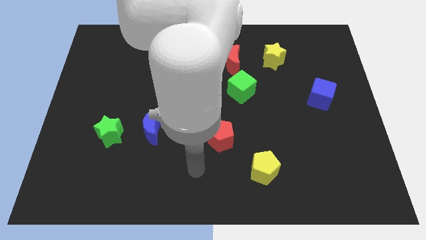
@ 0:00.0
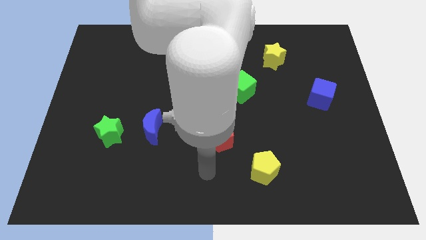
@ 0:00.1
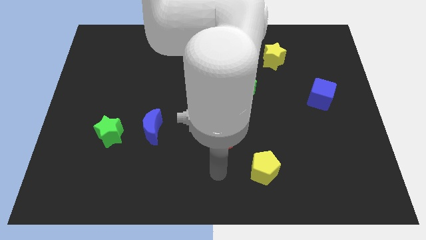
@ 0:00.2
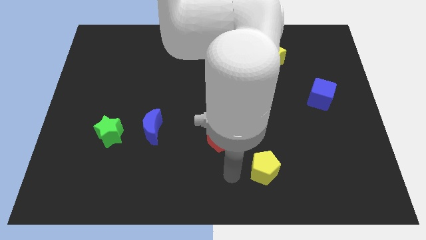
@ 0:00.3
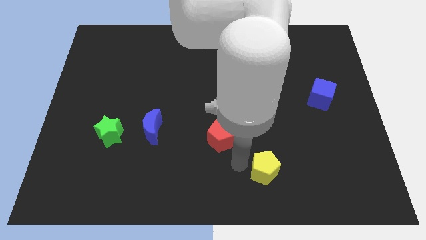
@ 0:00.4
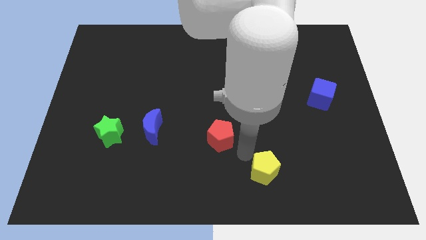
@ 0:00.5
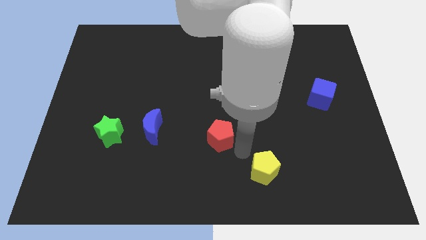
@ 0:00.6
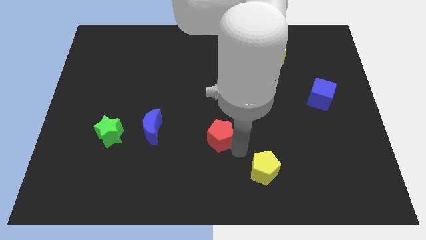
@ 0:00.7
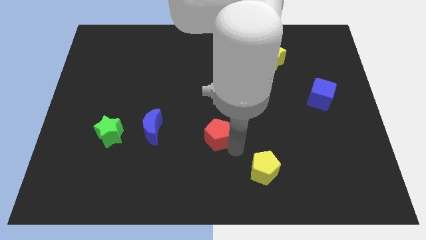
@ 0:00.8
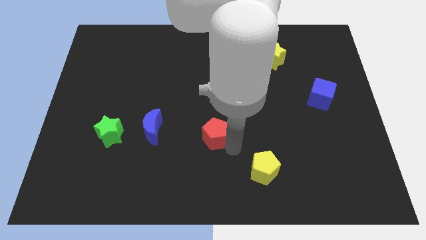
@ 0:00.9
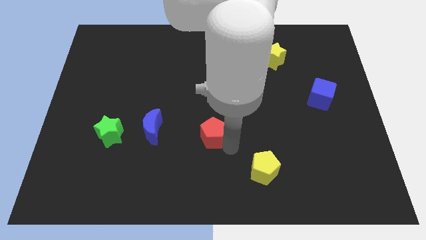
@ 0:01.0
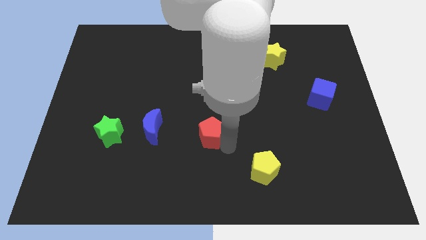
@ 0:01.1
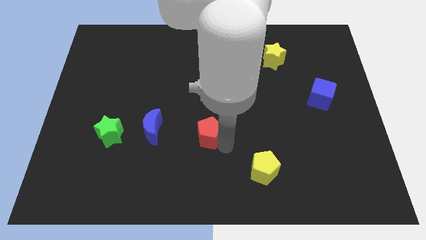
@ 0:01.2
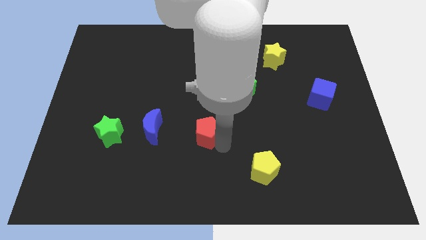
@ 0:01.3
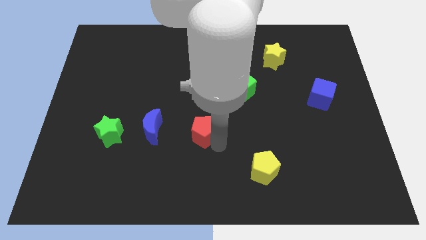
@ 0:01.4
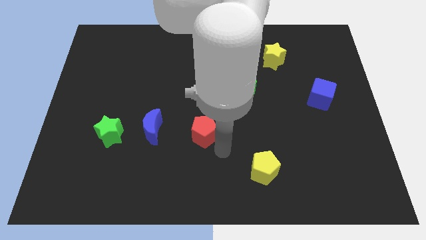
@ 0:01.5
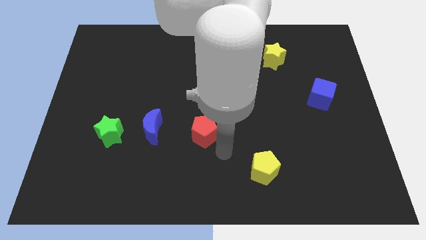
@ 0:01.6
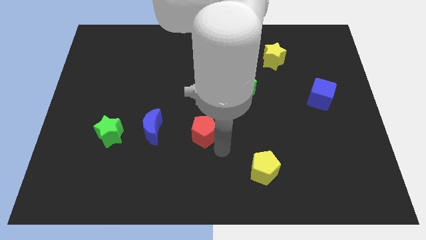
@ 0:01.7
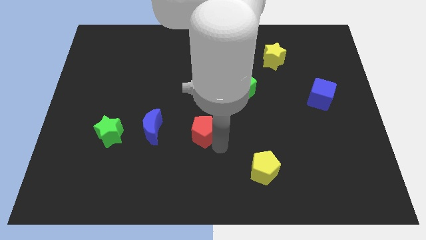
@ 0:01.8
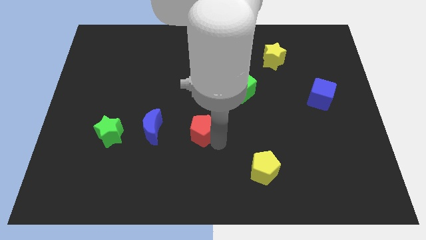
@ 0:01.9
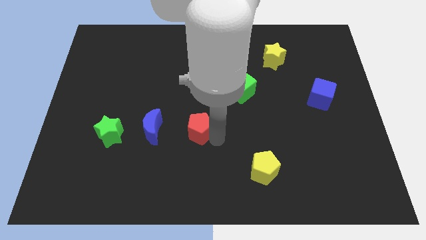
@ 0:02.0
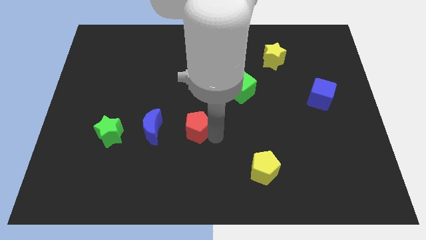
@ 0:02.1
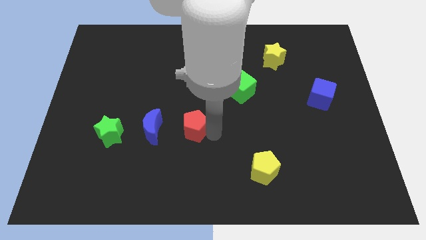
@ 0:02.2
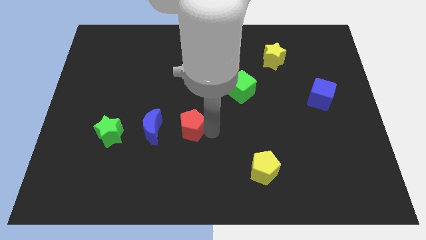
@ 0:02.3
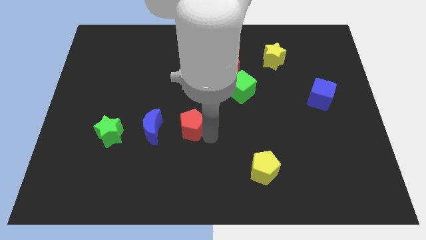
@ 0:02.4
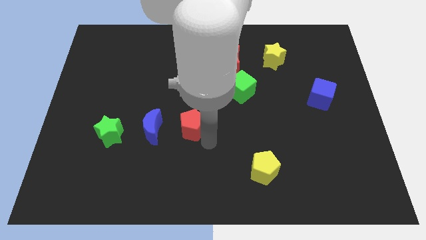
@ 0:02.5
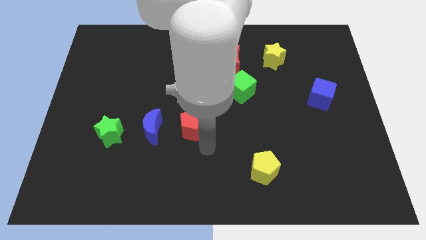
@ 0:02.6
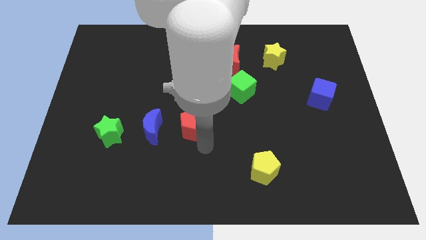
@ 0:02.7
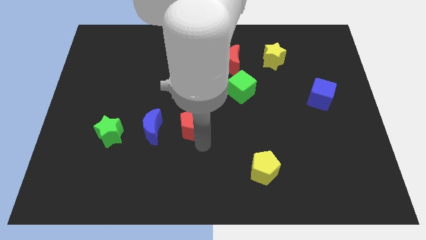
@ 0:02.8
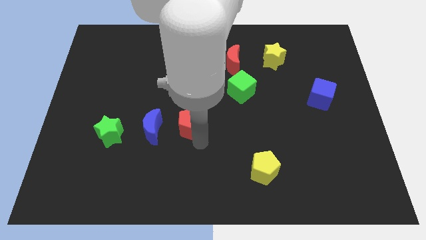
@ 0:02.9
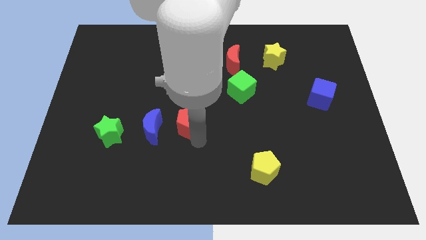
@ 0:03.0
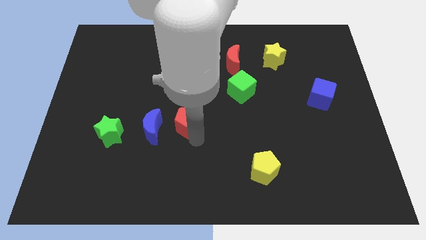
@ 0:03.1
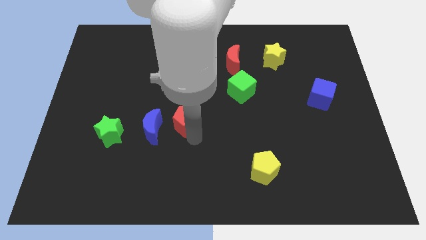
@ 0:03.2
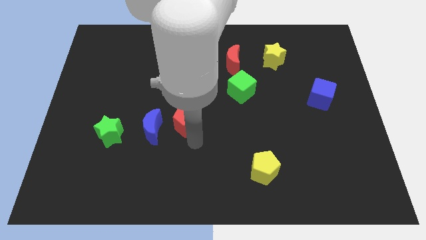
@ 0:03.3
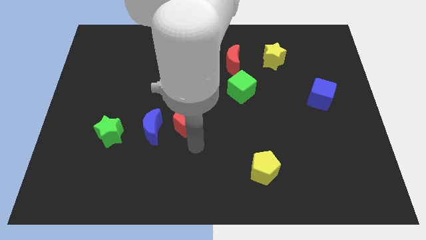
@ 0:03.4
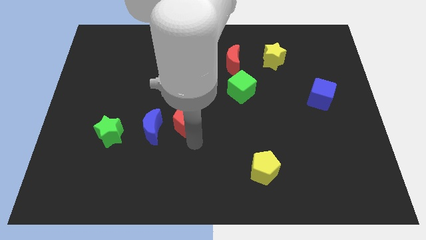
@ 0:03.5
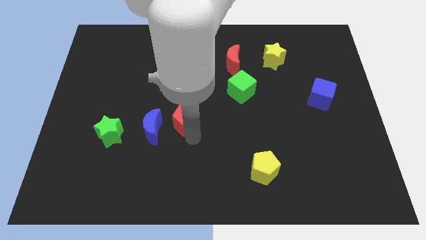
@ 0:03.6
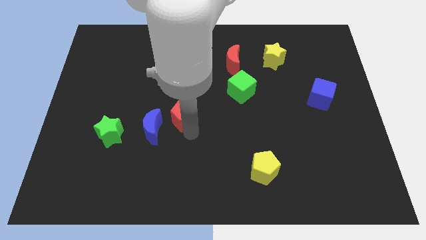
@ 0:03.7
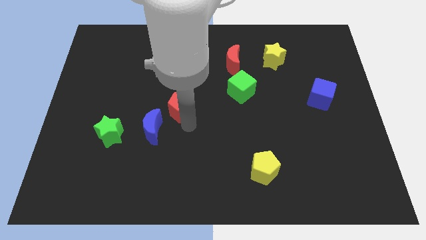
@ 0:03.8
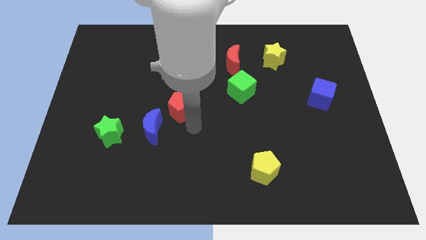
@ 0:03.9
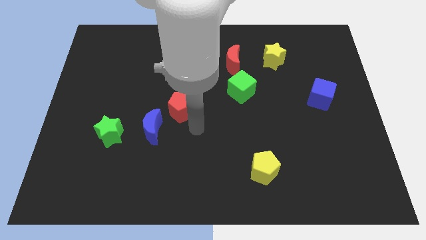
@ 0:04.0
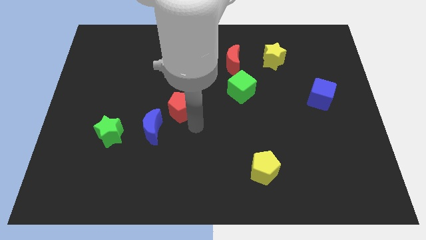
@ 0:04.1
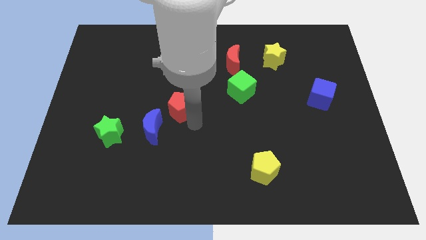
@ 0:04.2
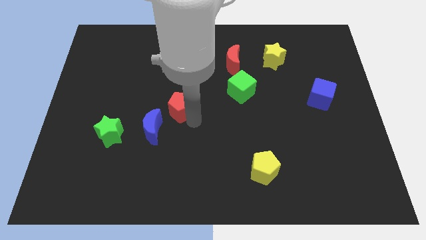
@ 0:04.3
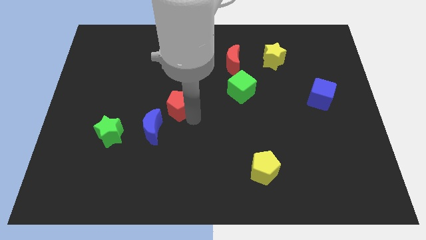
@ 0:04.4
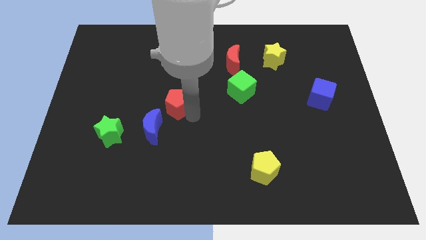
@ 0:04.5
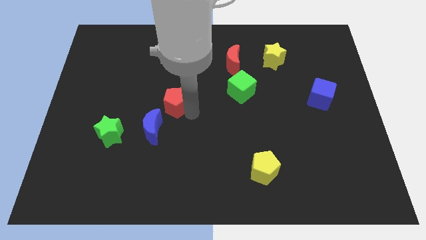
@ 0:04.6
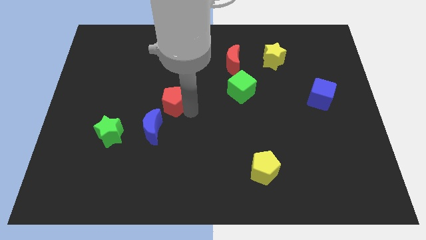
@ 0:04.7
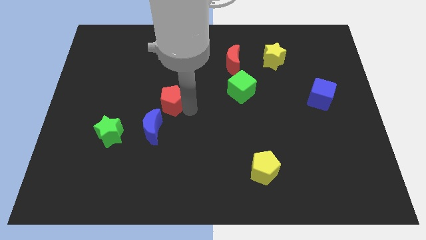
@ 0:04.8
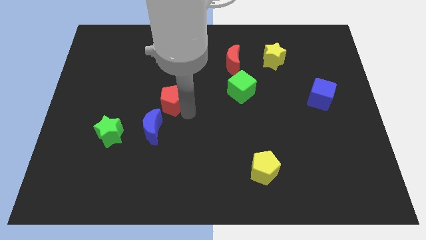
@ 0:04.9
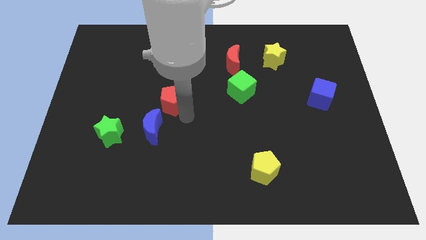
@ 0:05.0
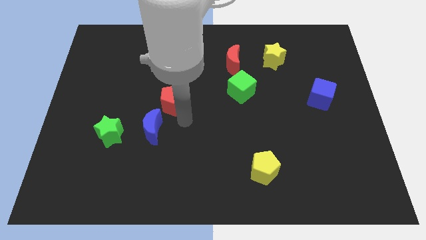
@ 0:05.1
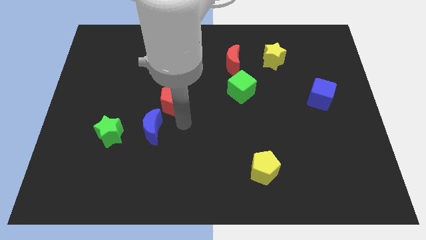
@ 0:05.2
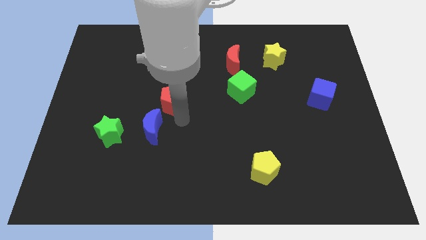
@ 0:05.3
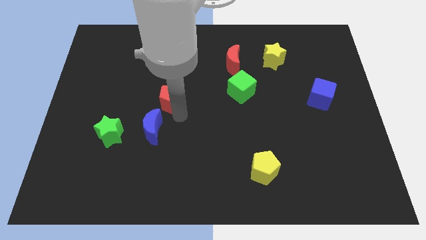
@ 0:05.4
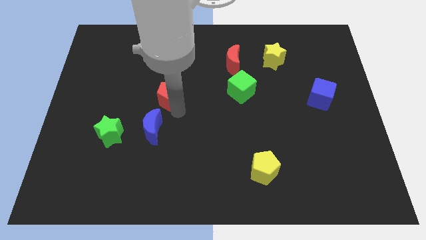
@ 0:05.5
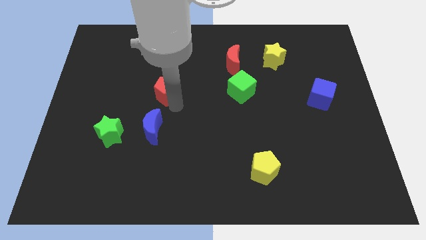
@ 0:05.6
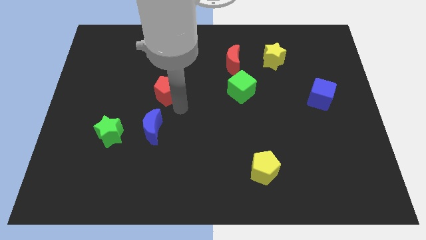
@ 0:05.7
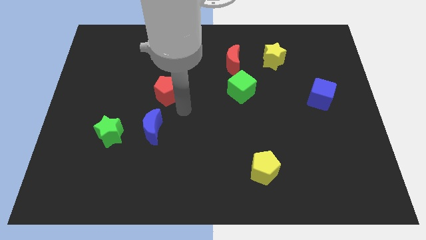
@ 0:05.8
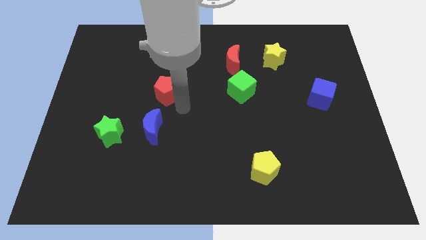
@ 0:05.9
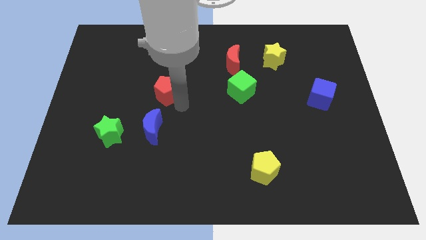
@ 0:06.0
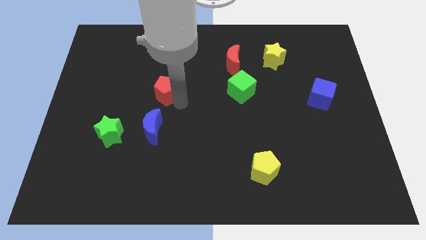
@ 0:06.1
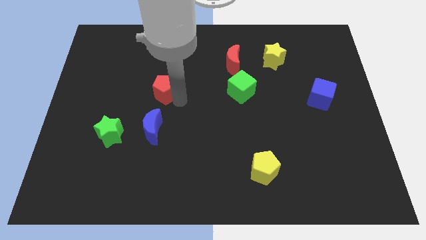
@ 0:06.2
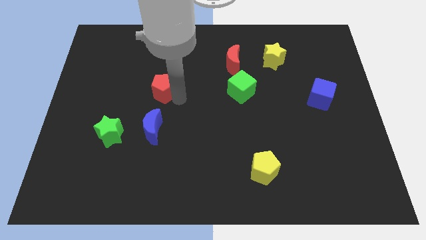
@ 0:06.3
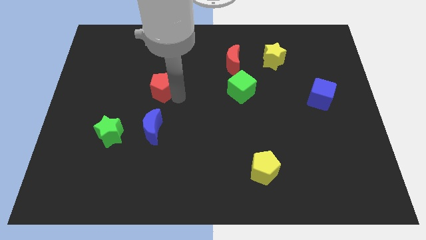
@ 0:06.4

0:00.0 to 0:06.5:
push the red pentagon diagonally upwards and to the left

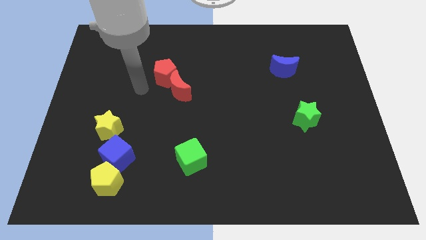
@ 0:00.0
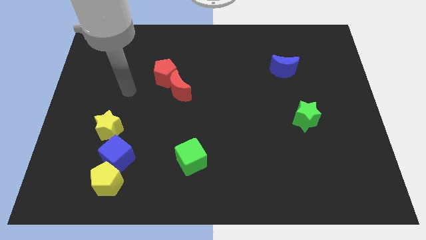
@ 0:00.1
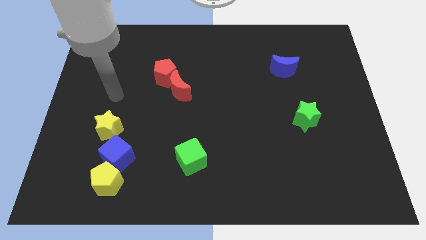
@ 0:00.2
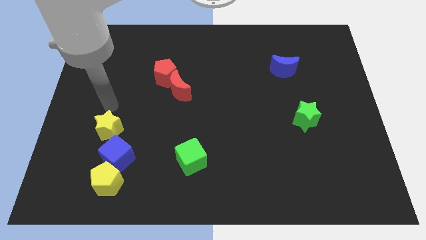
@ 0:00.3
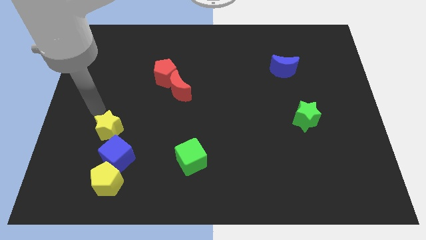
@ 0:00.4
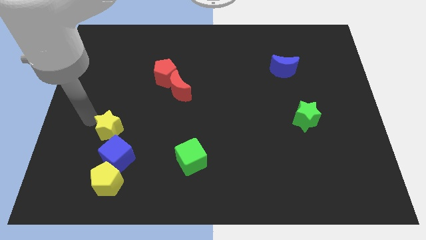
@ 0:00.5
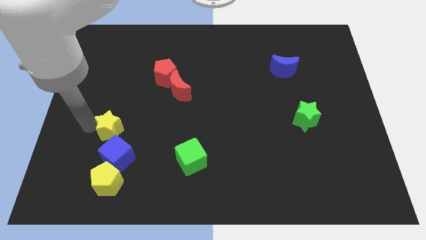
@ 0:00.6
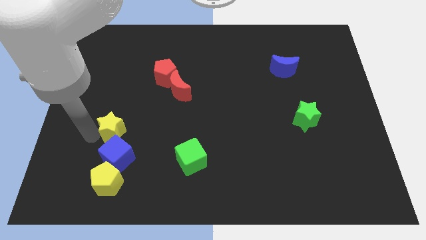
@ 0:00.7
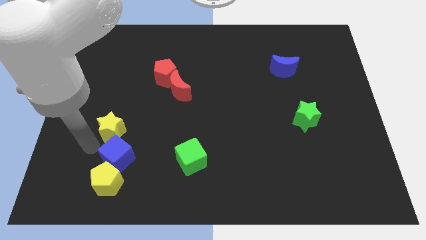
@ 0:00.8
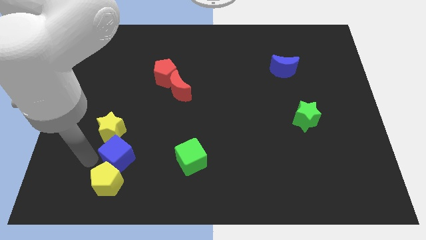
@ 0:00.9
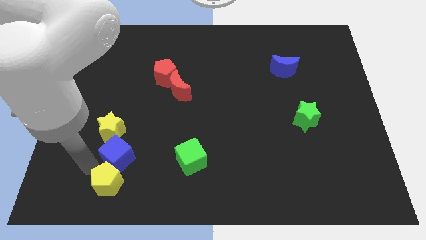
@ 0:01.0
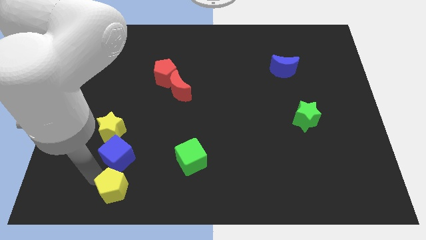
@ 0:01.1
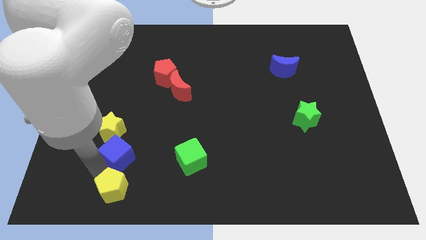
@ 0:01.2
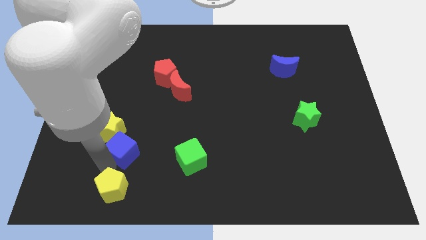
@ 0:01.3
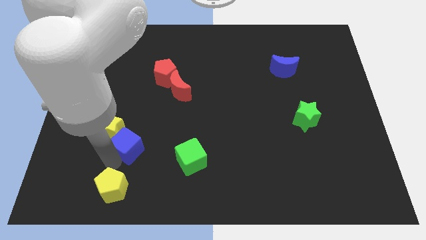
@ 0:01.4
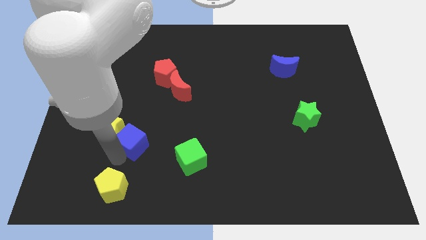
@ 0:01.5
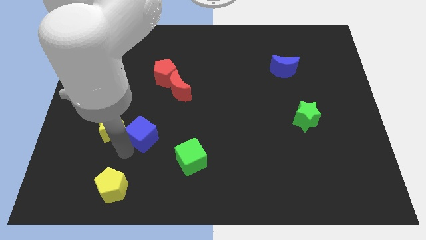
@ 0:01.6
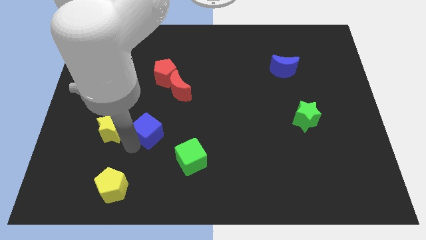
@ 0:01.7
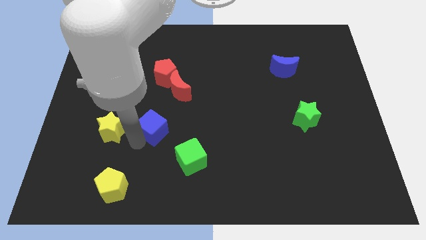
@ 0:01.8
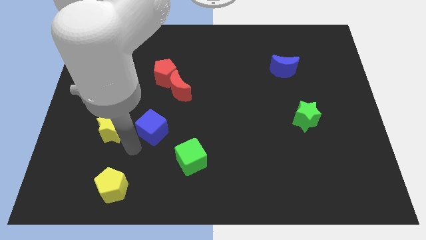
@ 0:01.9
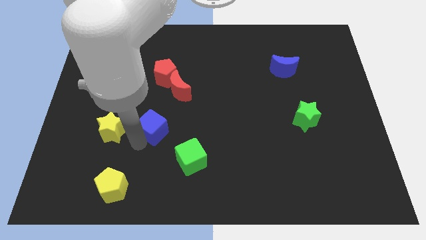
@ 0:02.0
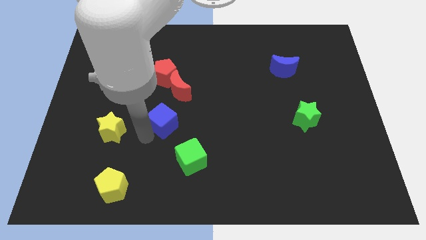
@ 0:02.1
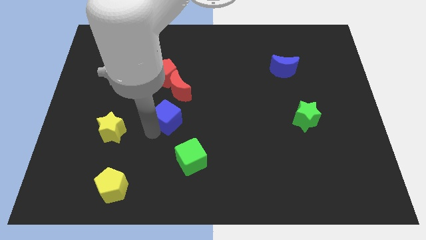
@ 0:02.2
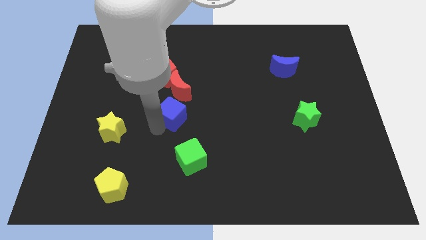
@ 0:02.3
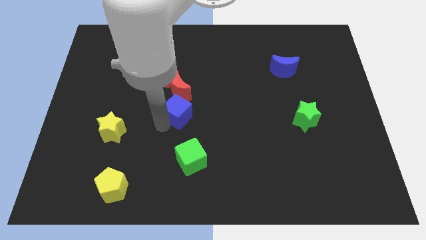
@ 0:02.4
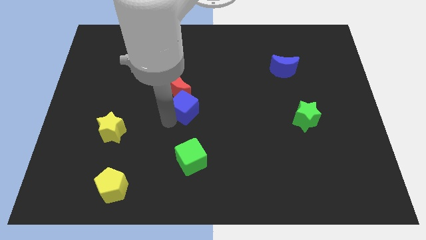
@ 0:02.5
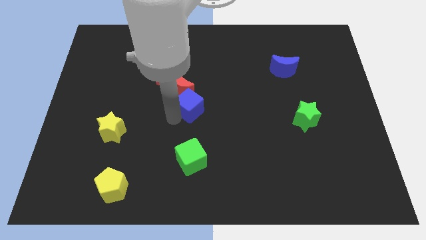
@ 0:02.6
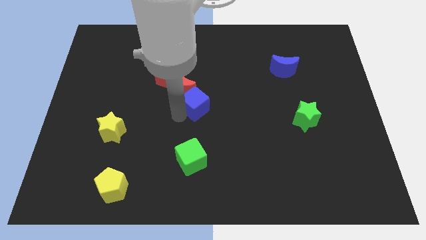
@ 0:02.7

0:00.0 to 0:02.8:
move the blue cube upwards and to the right
